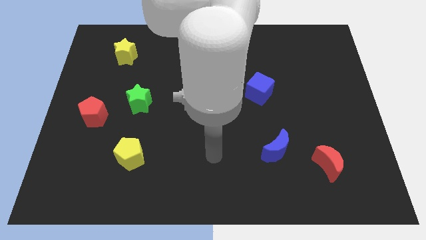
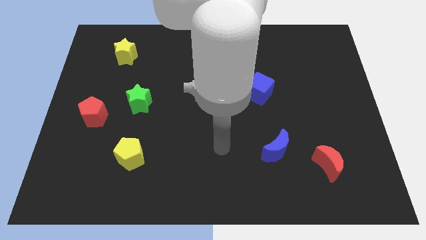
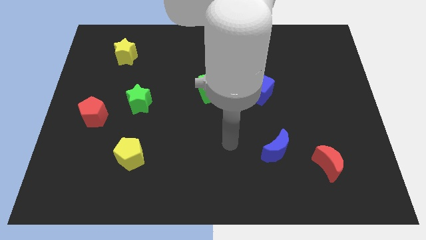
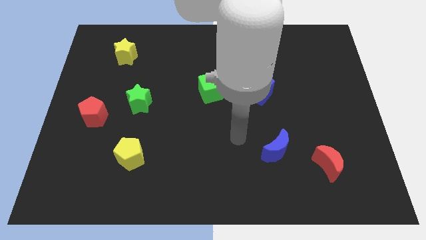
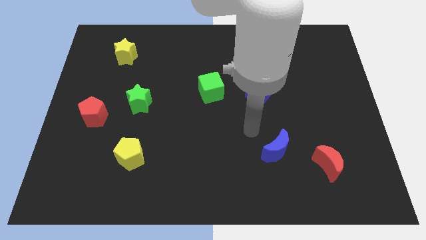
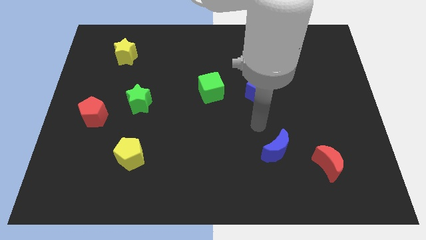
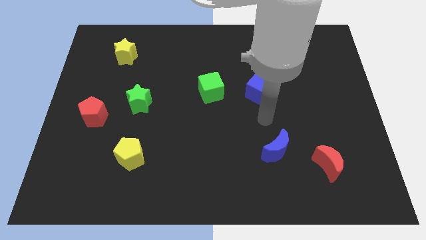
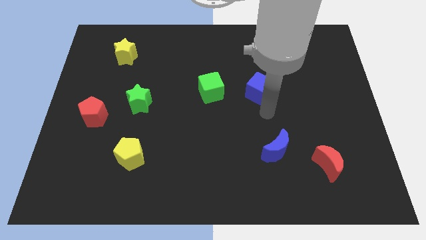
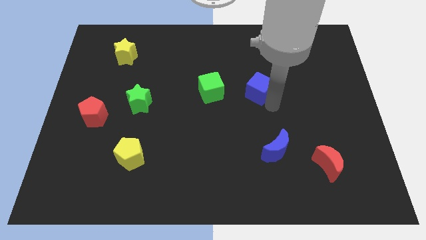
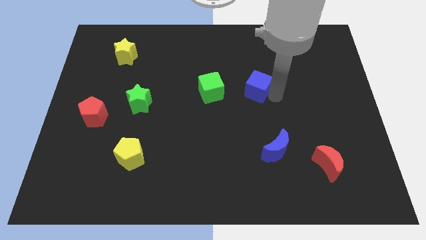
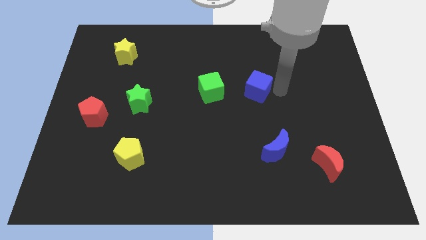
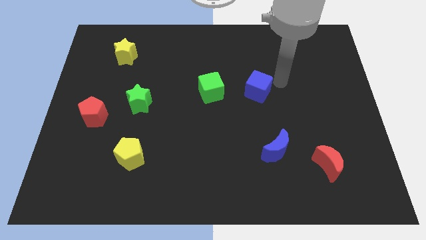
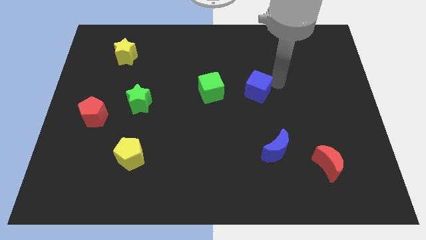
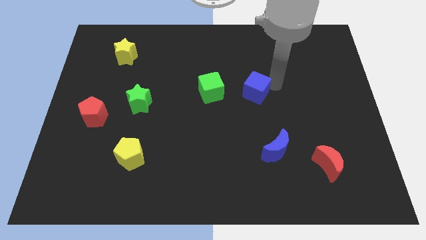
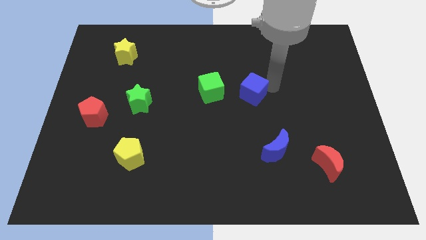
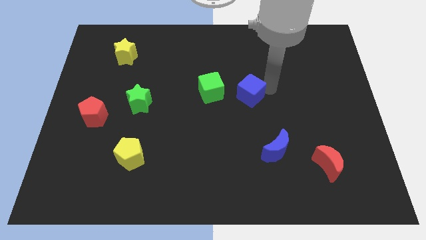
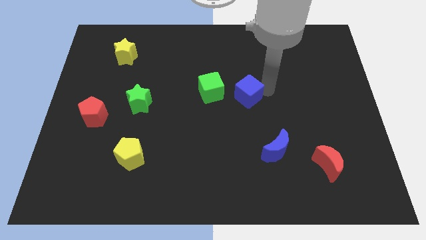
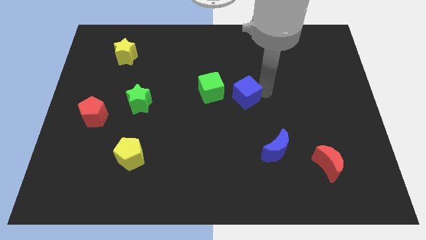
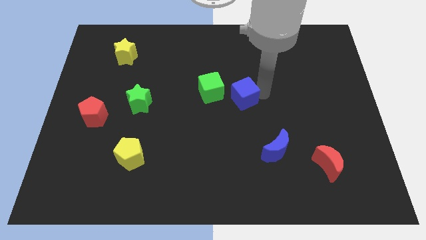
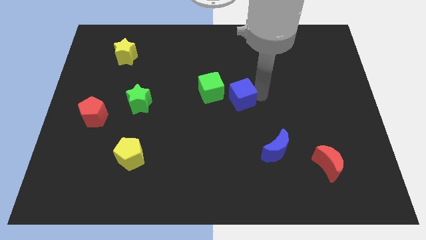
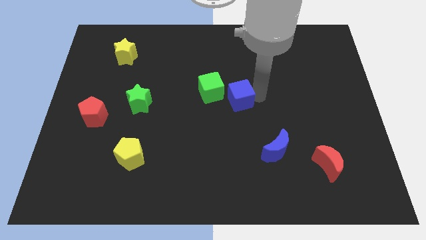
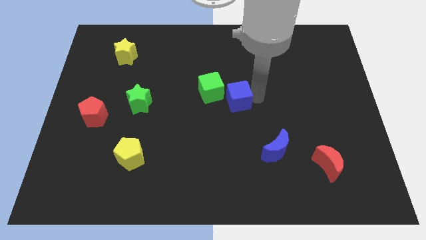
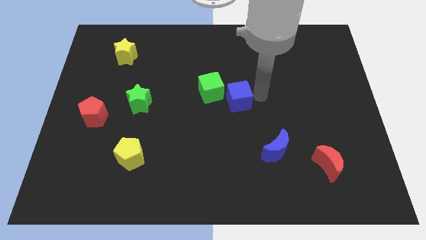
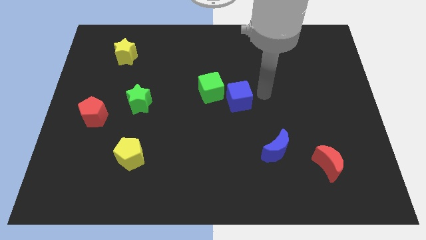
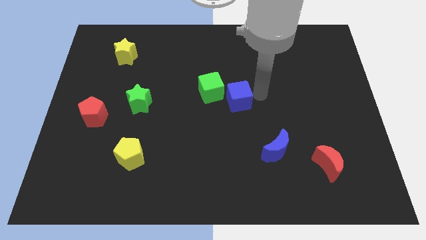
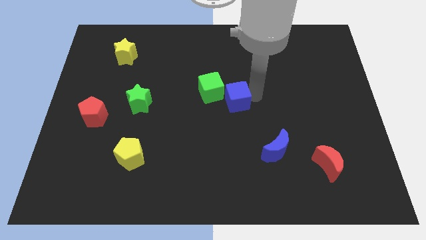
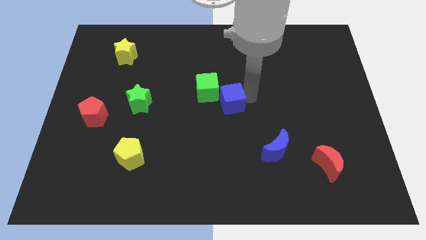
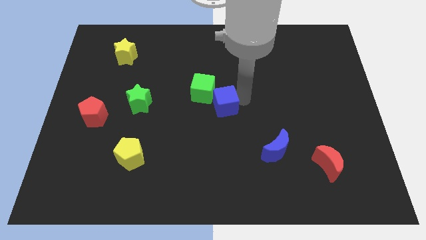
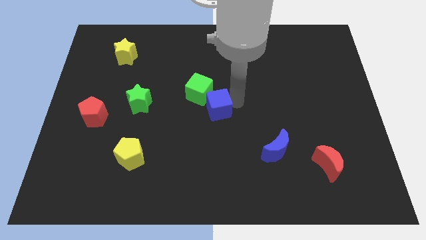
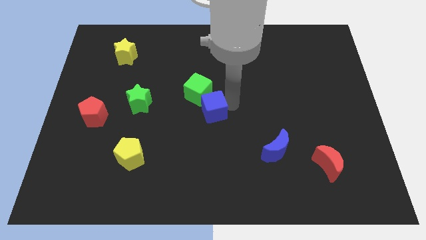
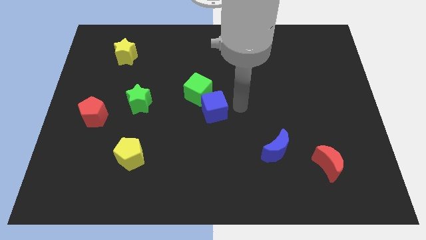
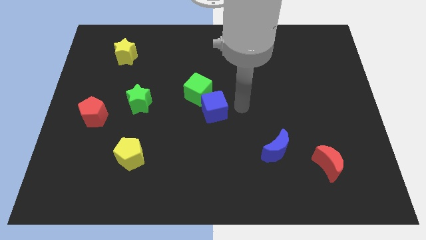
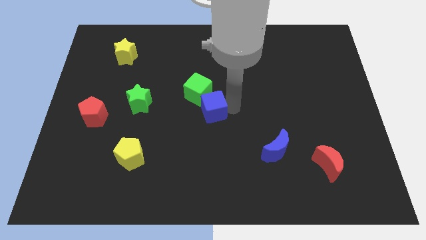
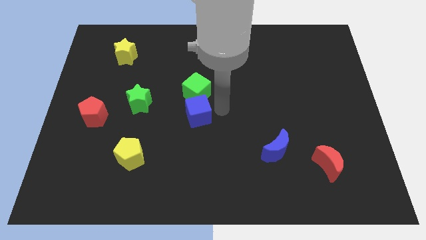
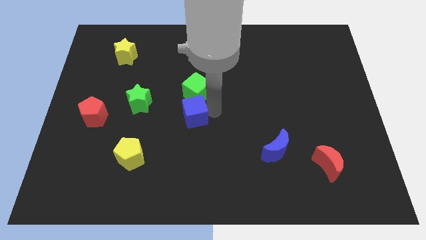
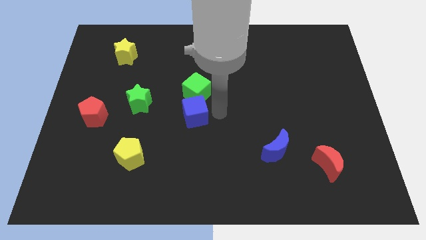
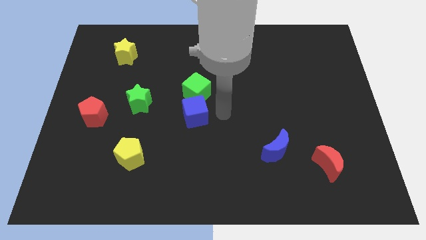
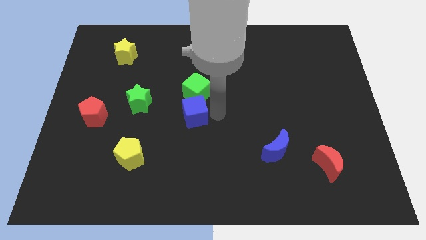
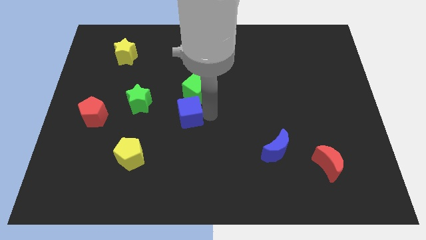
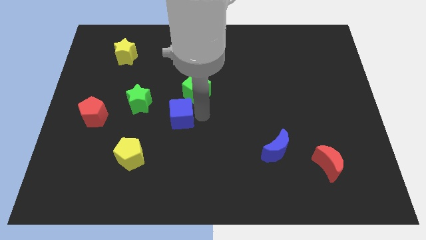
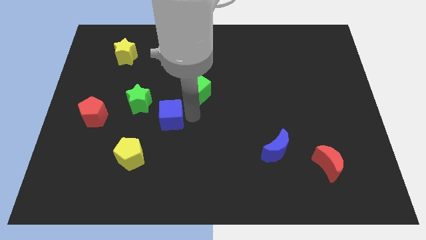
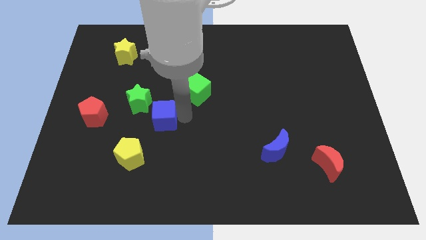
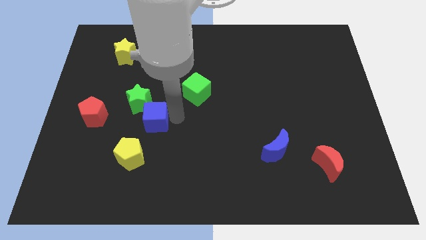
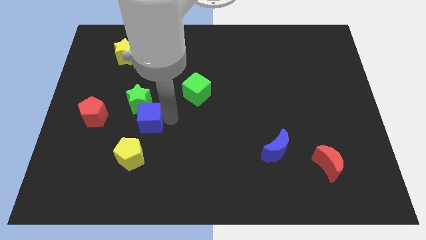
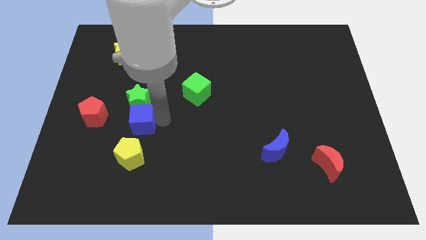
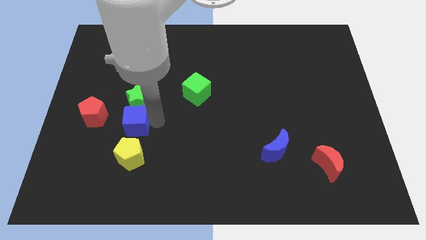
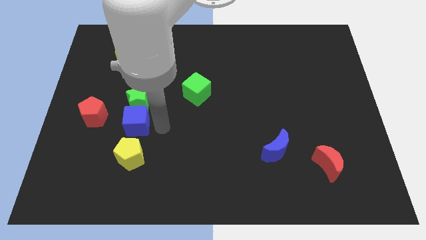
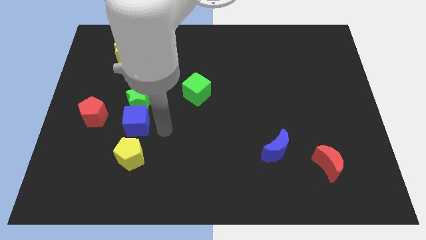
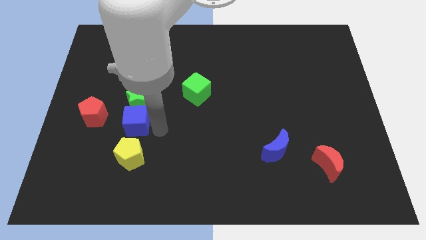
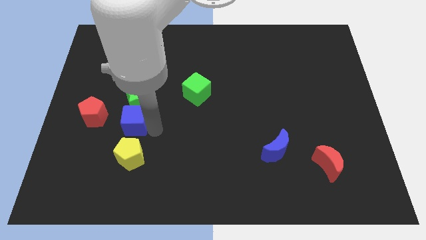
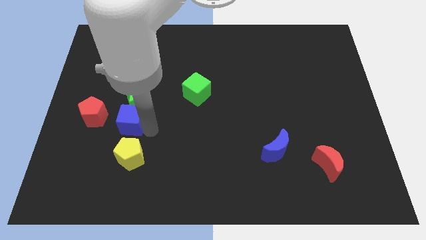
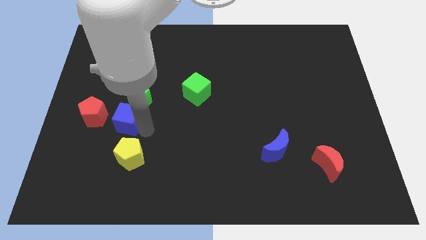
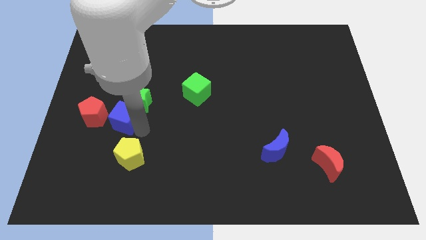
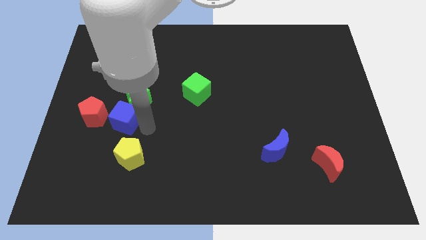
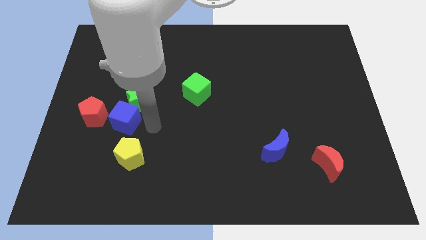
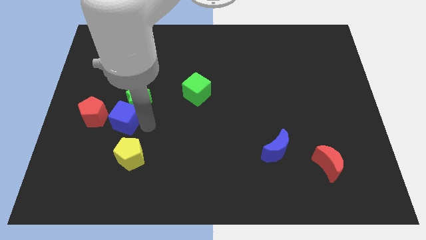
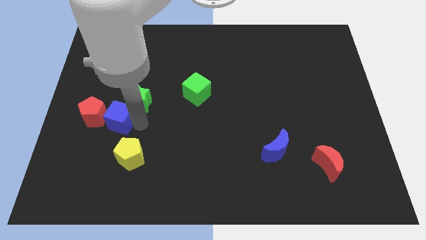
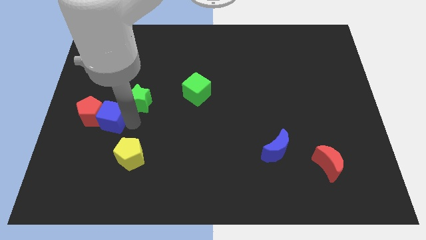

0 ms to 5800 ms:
move the blue cube towards the red pentagon

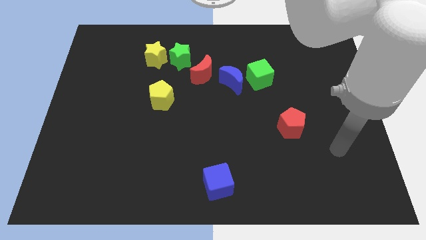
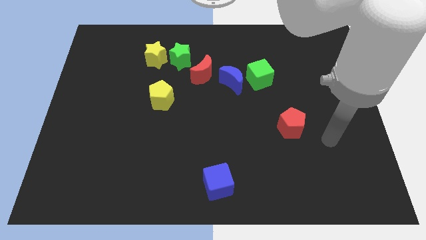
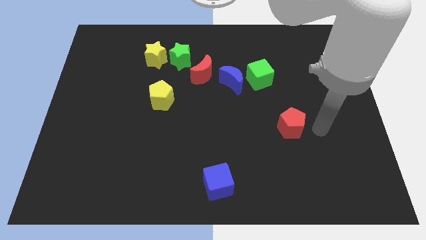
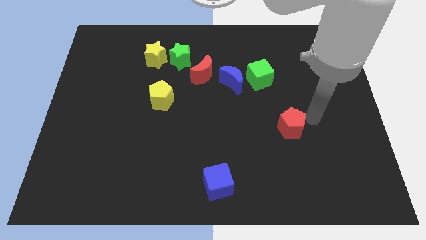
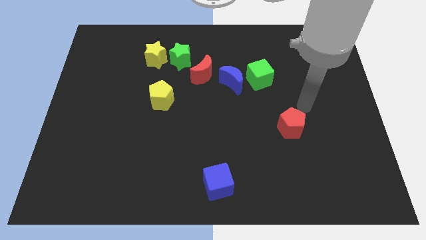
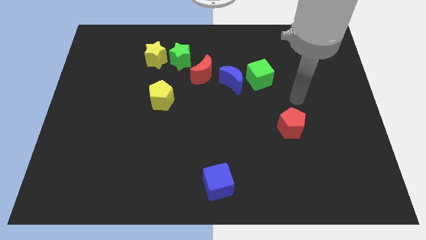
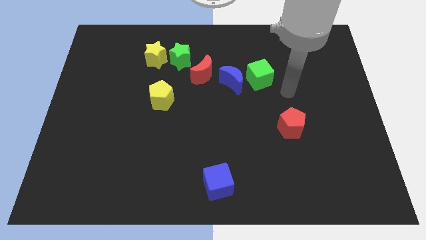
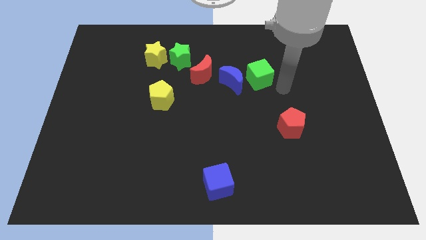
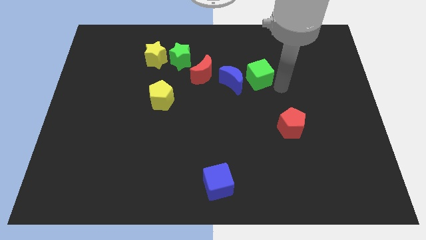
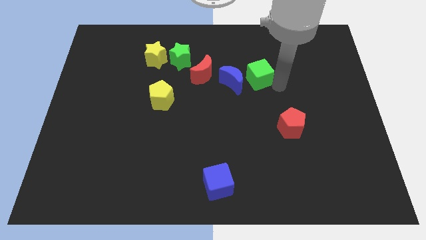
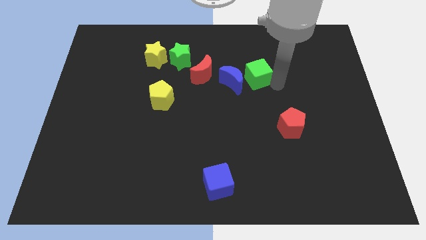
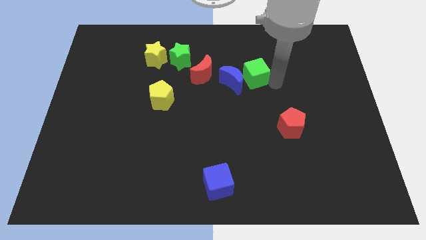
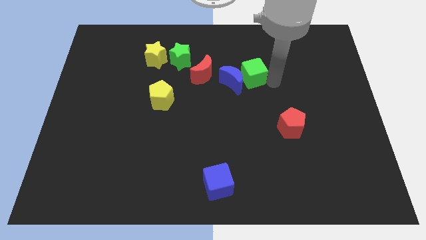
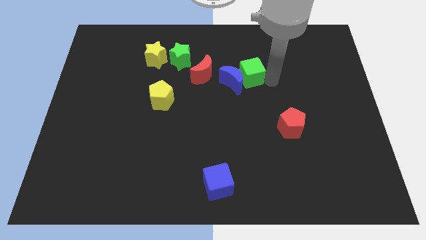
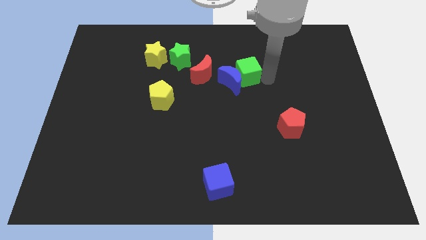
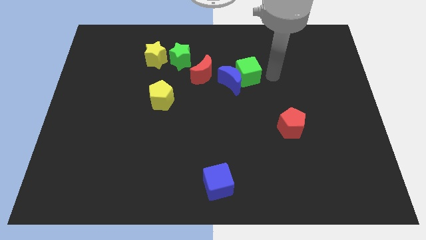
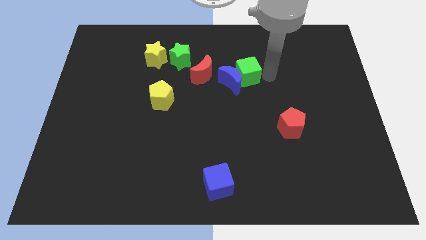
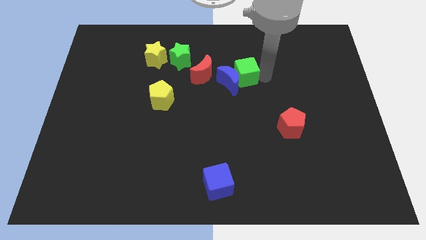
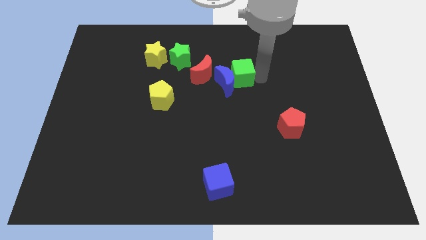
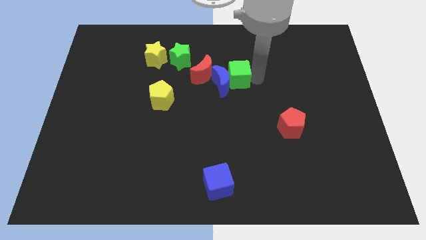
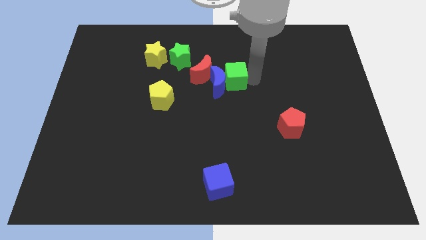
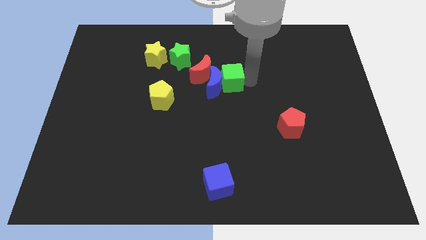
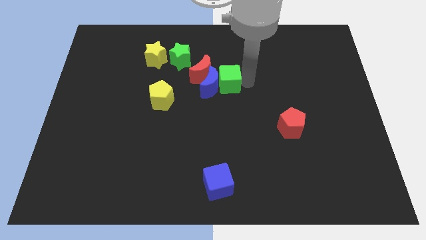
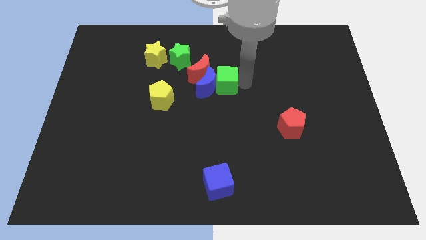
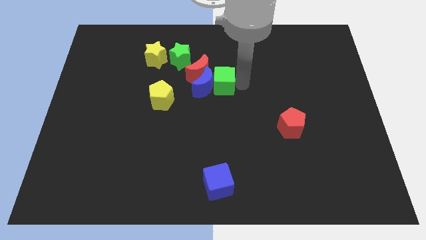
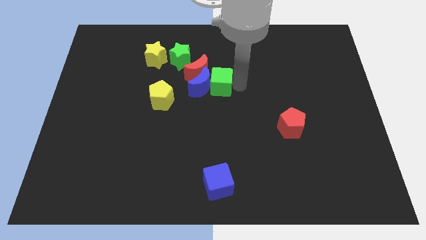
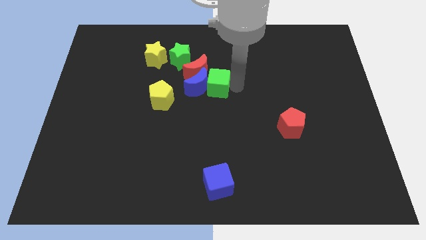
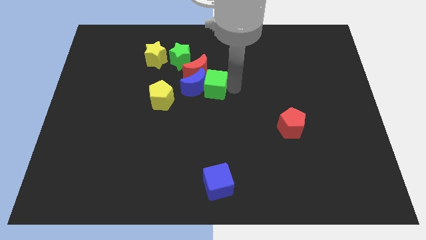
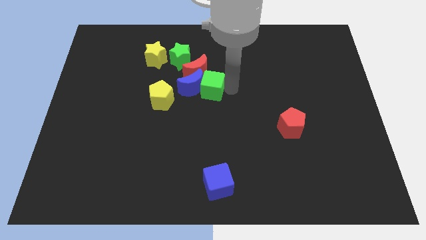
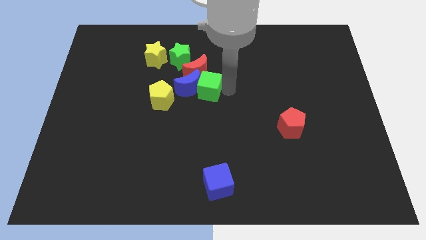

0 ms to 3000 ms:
move the green cube close to the red moon
